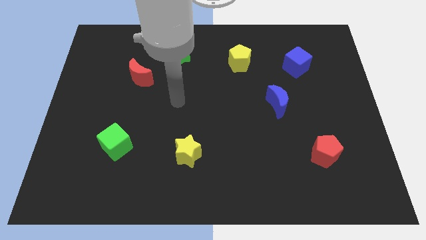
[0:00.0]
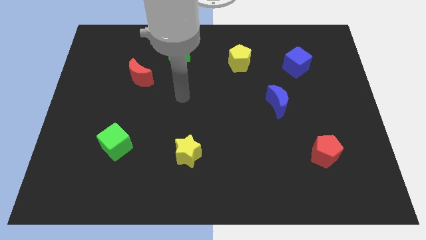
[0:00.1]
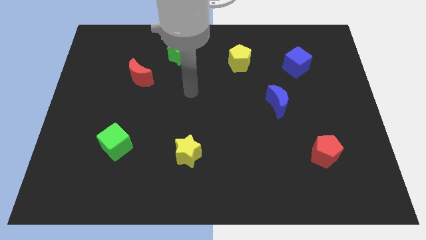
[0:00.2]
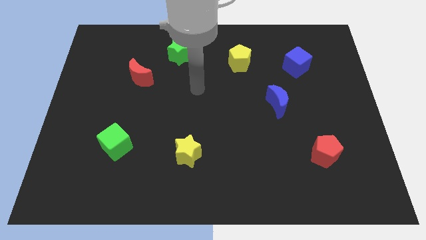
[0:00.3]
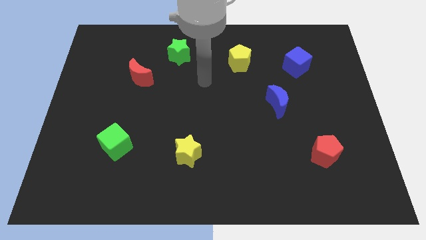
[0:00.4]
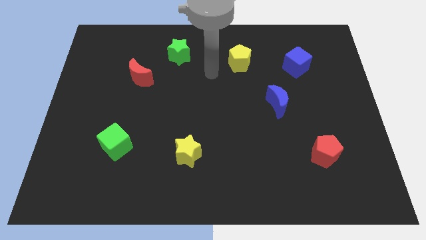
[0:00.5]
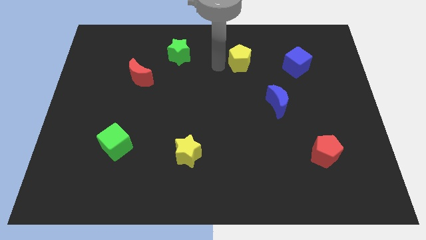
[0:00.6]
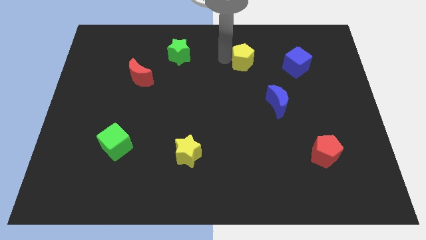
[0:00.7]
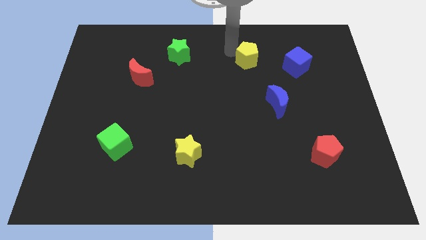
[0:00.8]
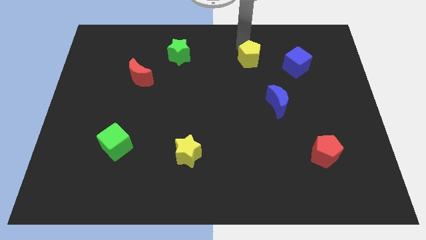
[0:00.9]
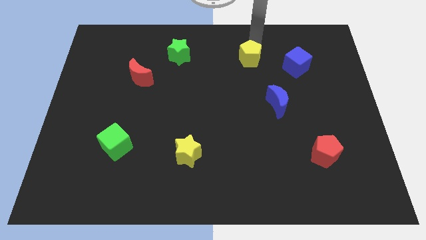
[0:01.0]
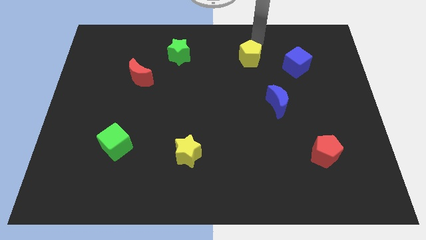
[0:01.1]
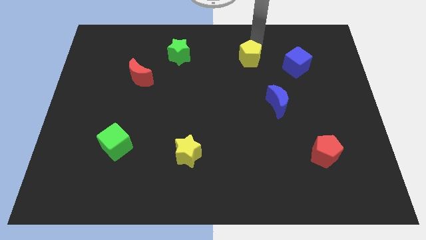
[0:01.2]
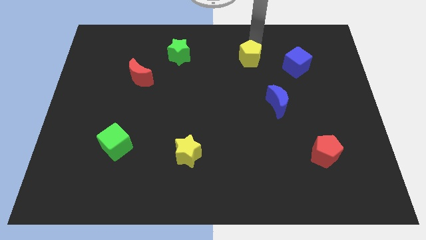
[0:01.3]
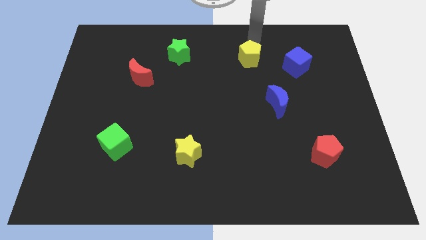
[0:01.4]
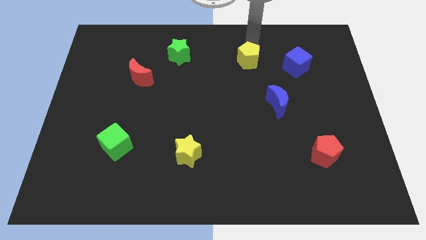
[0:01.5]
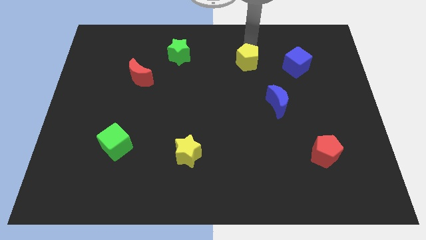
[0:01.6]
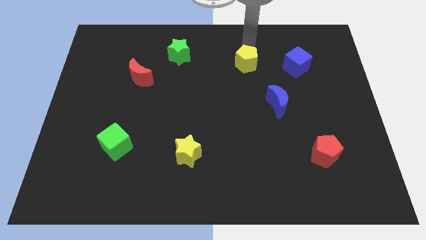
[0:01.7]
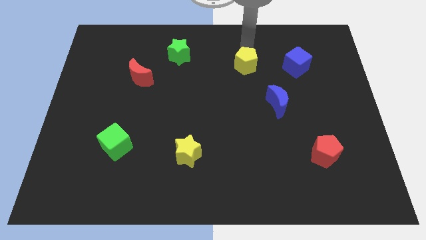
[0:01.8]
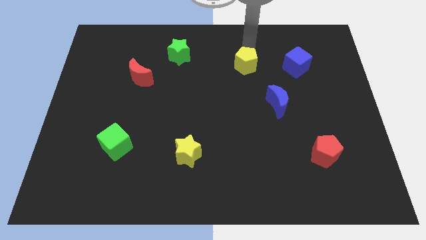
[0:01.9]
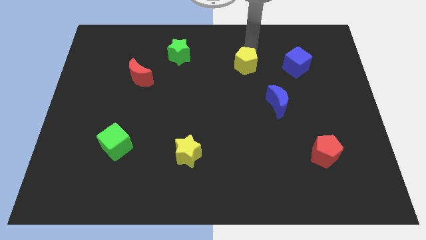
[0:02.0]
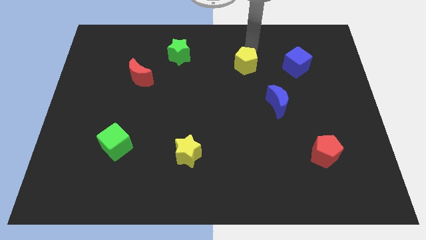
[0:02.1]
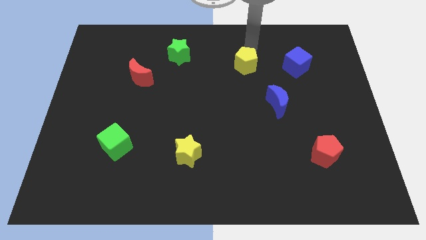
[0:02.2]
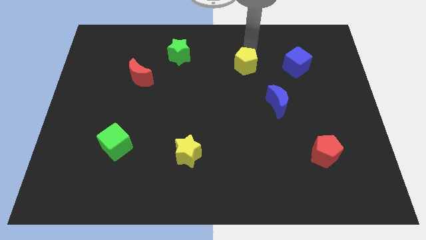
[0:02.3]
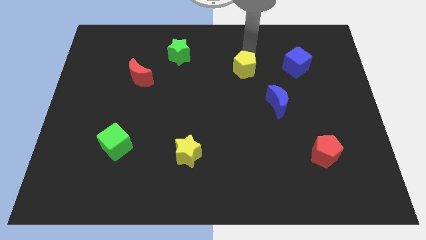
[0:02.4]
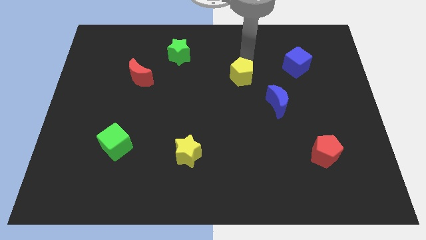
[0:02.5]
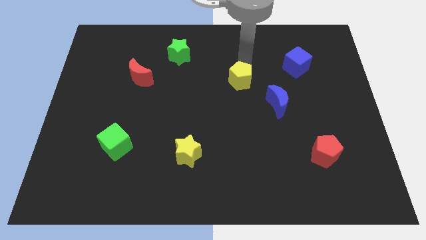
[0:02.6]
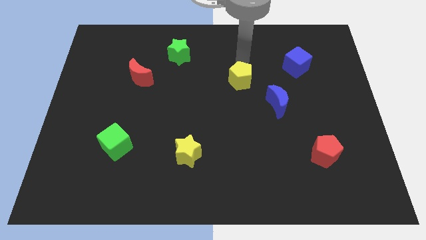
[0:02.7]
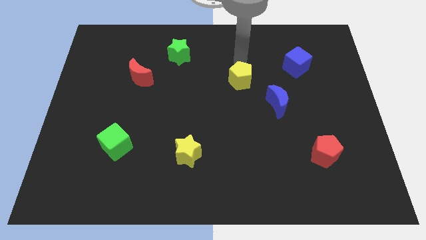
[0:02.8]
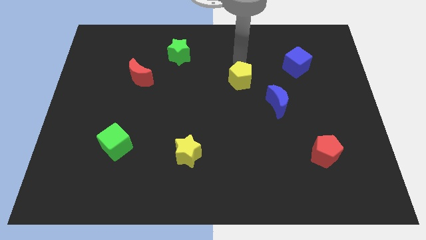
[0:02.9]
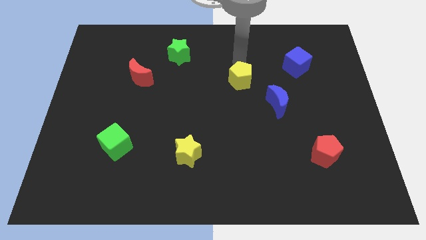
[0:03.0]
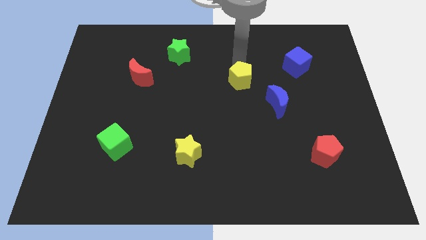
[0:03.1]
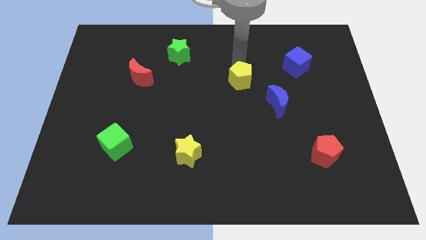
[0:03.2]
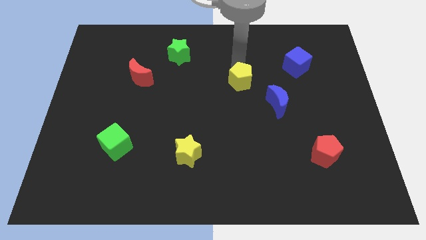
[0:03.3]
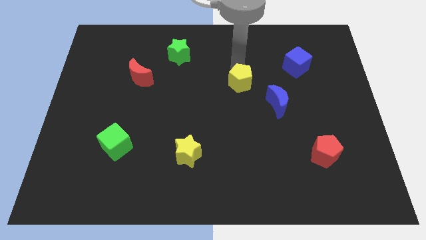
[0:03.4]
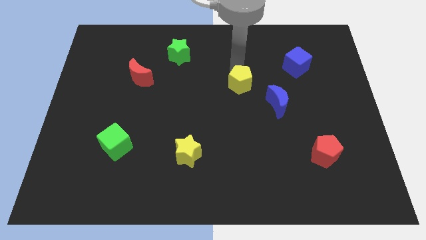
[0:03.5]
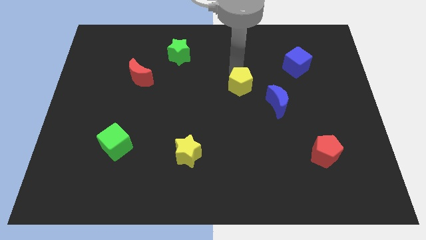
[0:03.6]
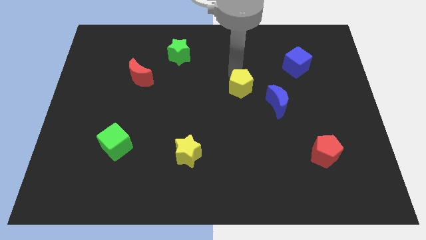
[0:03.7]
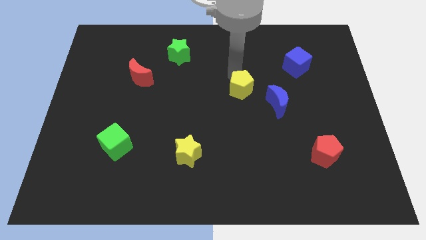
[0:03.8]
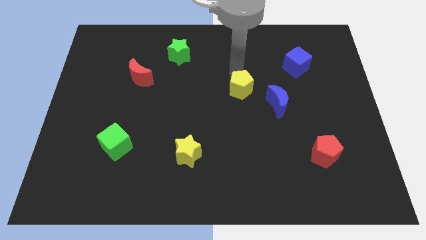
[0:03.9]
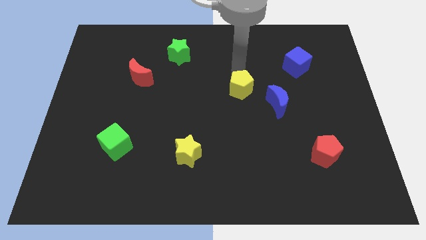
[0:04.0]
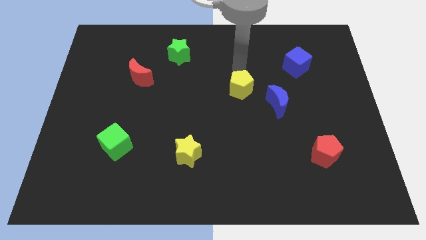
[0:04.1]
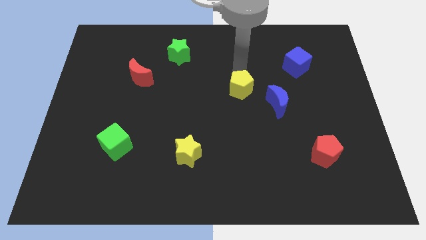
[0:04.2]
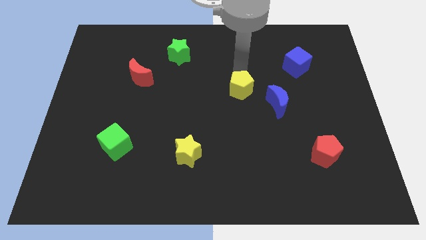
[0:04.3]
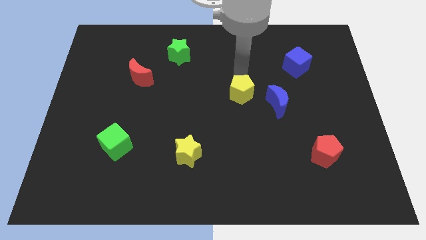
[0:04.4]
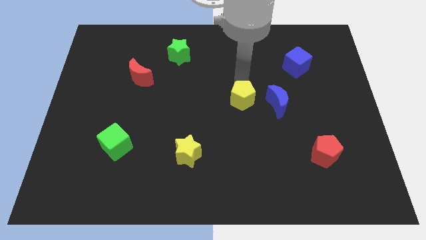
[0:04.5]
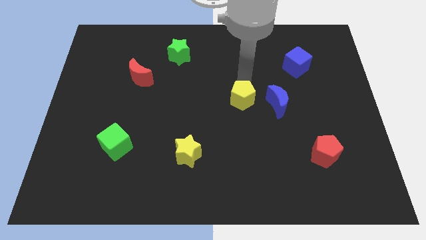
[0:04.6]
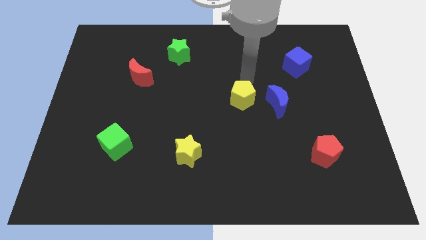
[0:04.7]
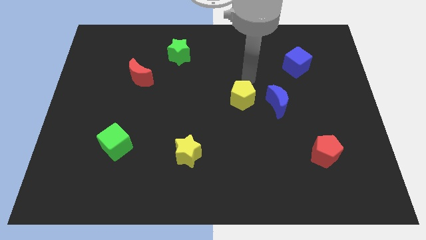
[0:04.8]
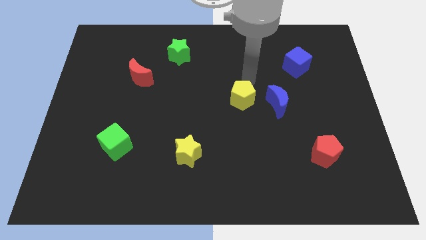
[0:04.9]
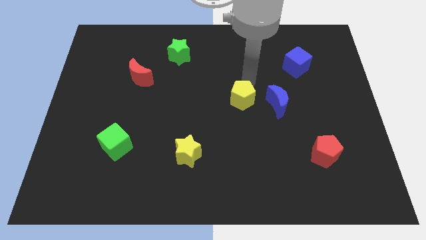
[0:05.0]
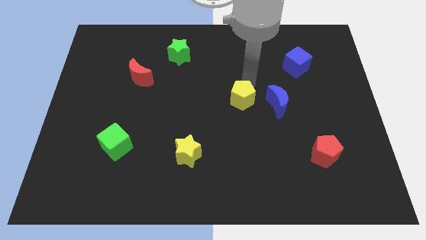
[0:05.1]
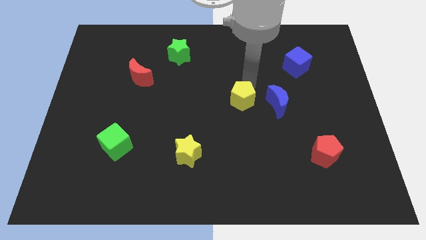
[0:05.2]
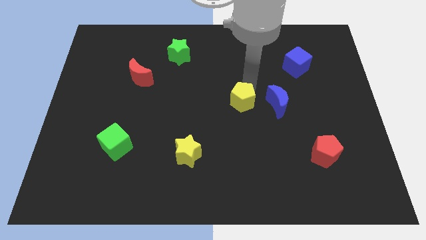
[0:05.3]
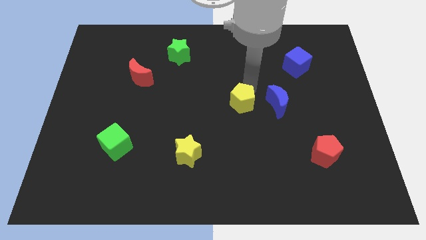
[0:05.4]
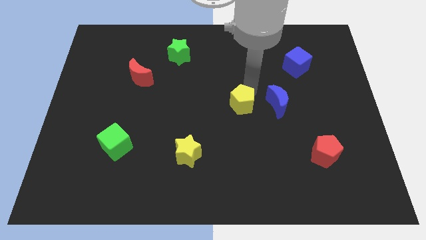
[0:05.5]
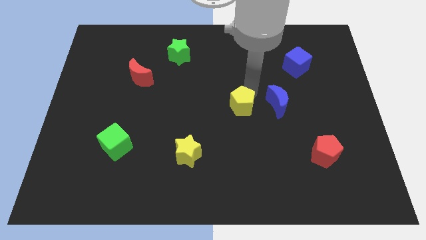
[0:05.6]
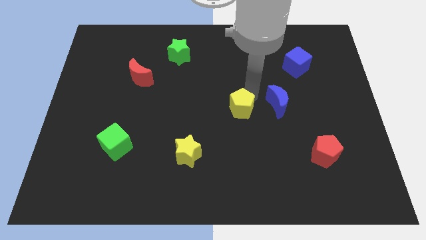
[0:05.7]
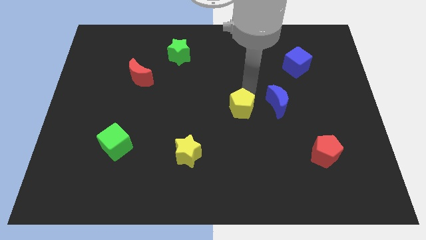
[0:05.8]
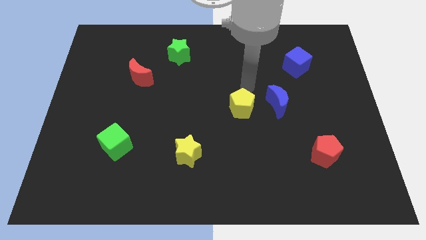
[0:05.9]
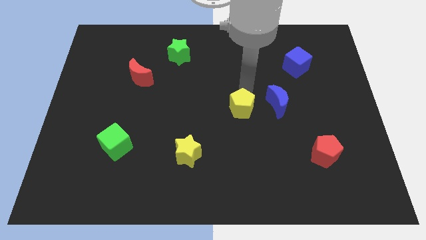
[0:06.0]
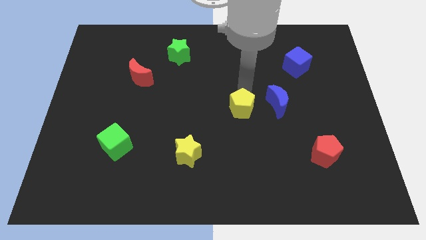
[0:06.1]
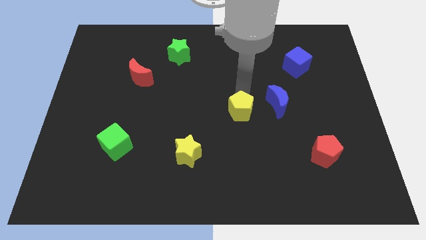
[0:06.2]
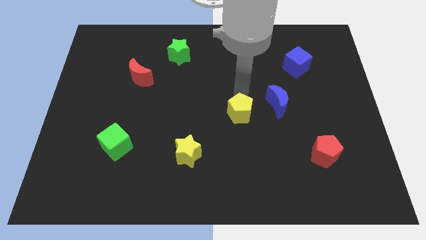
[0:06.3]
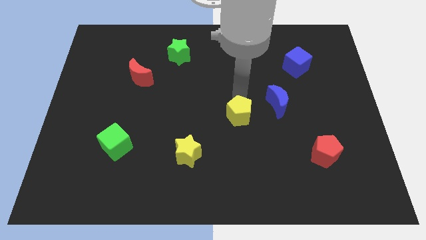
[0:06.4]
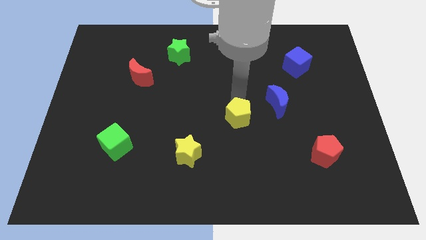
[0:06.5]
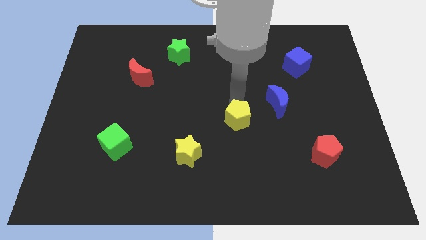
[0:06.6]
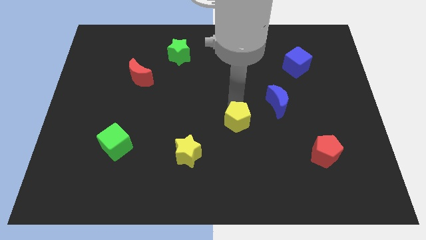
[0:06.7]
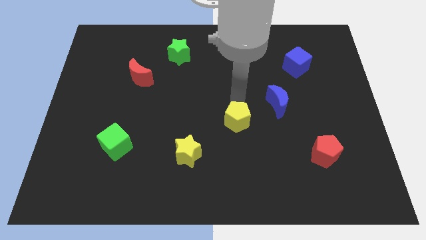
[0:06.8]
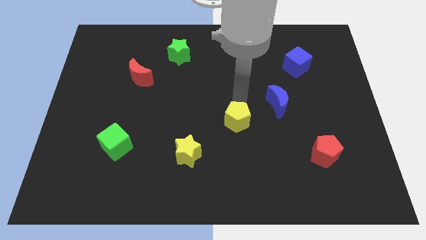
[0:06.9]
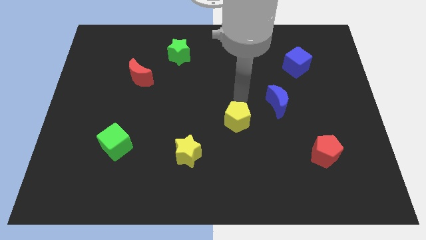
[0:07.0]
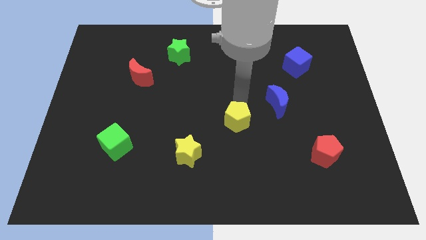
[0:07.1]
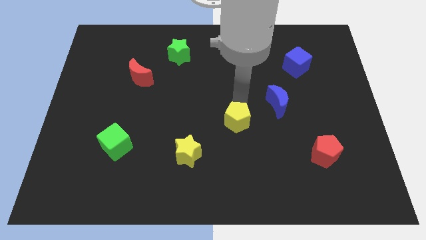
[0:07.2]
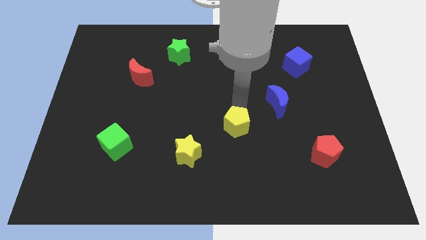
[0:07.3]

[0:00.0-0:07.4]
push the yellow pentagon down

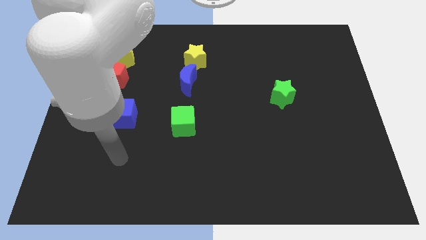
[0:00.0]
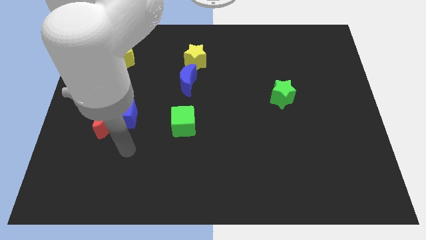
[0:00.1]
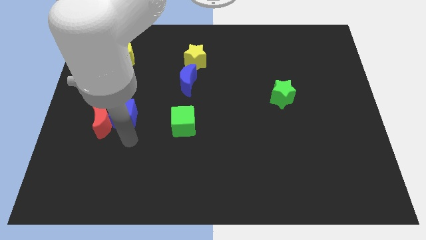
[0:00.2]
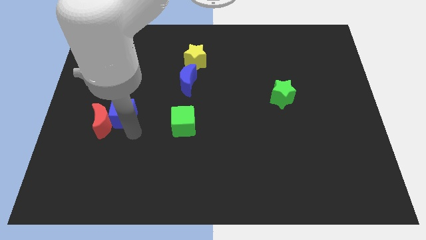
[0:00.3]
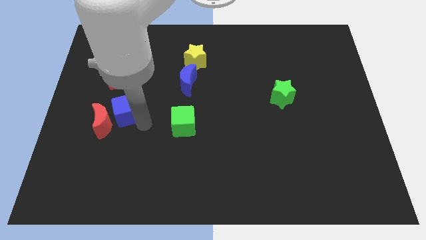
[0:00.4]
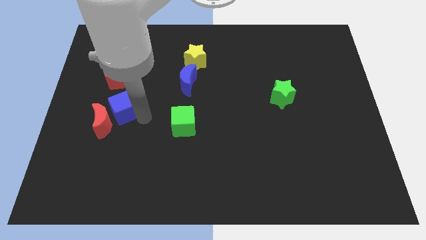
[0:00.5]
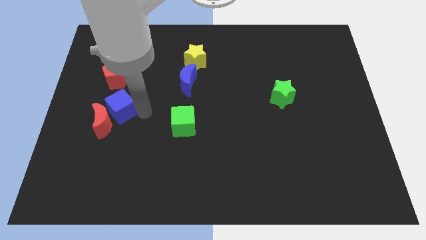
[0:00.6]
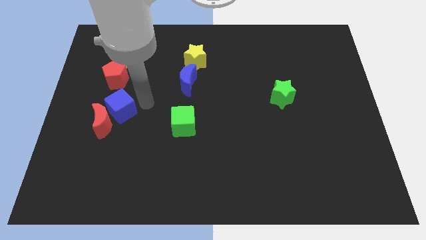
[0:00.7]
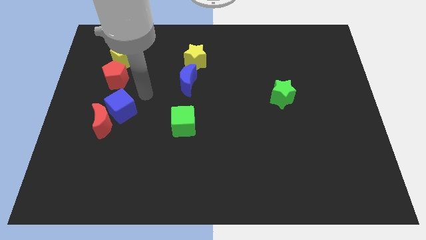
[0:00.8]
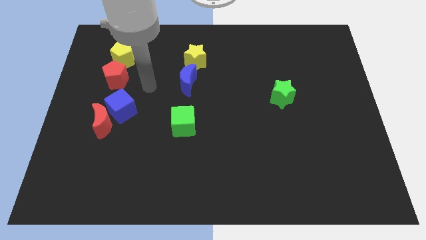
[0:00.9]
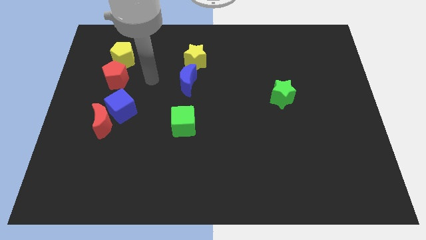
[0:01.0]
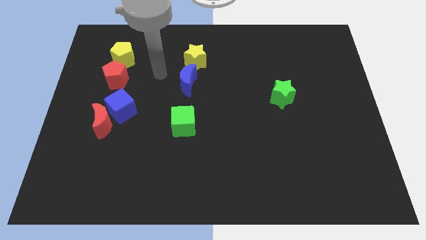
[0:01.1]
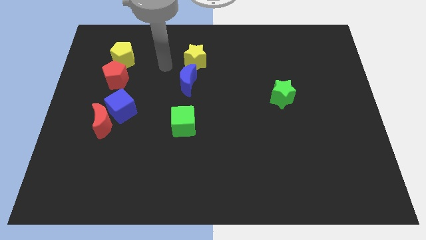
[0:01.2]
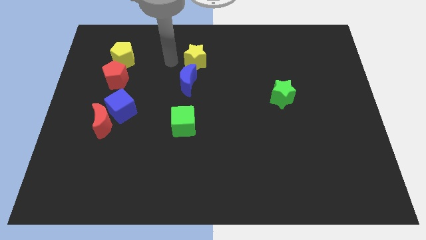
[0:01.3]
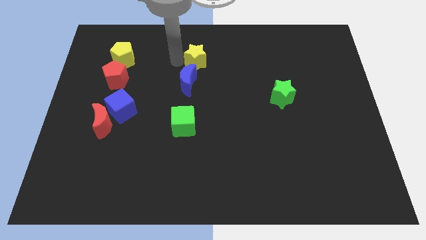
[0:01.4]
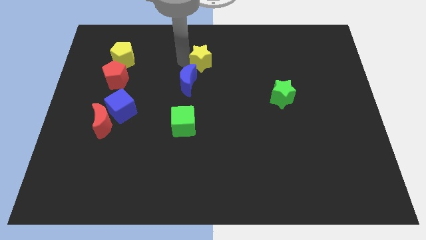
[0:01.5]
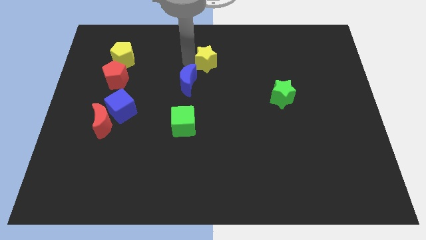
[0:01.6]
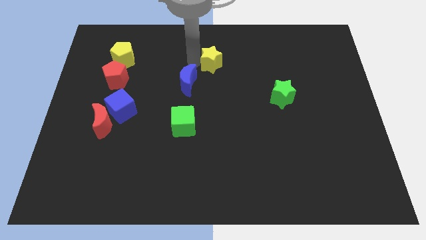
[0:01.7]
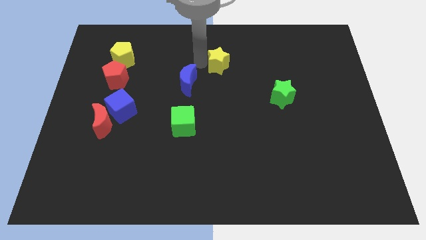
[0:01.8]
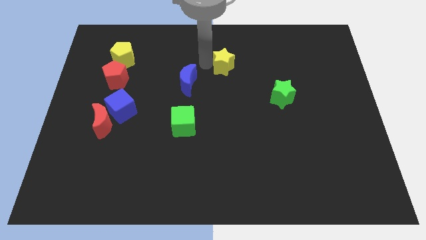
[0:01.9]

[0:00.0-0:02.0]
slide the yellow star a bit to the right
